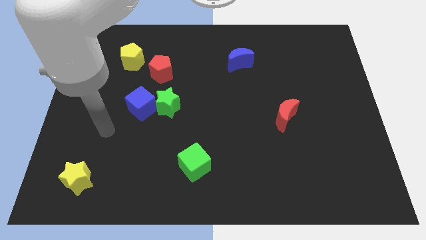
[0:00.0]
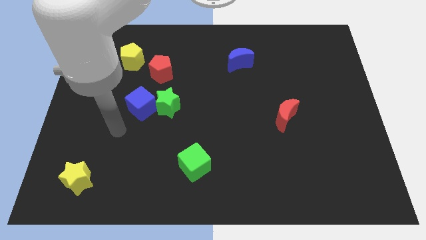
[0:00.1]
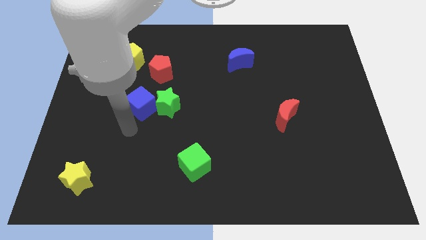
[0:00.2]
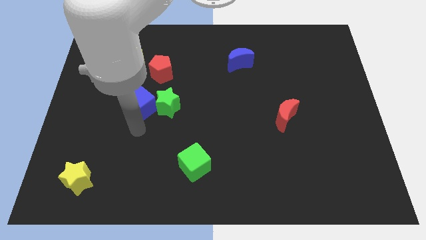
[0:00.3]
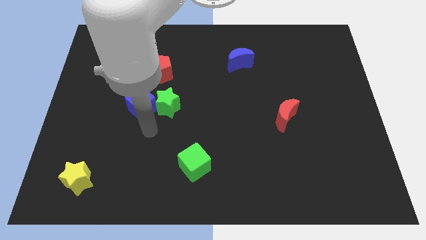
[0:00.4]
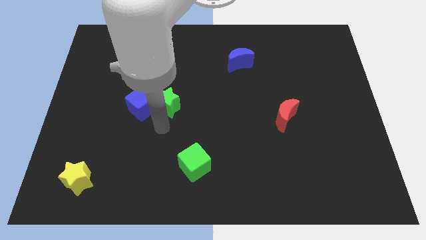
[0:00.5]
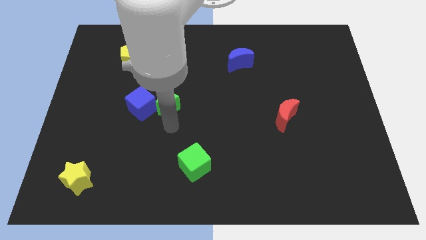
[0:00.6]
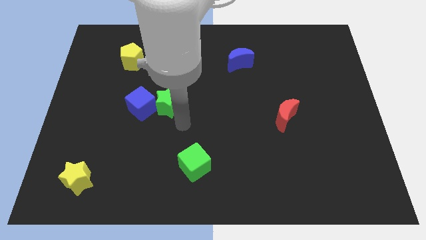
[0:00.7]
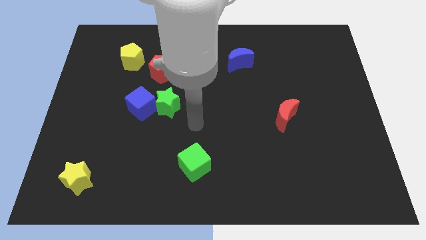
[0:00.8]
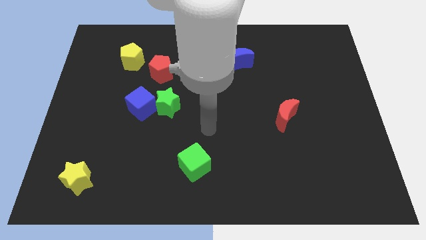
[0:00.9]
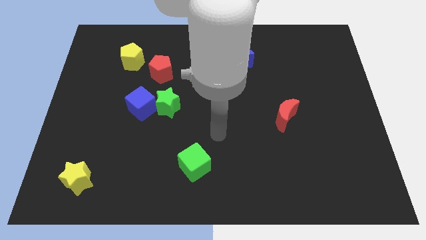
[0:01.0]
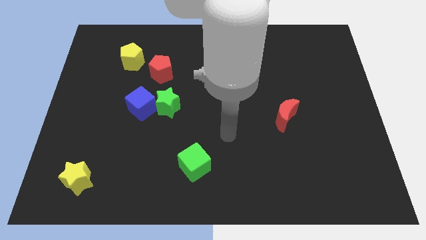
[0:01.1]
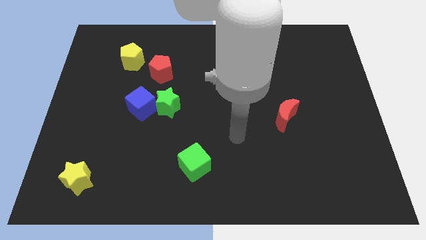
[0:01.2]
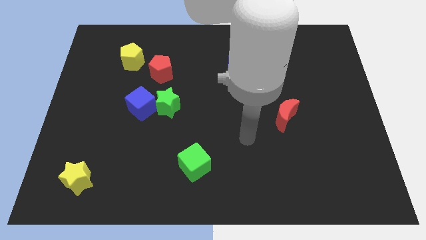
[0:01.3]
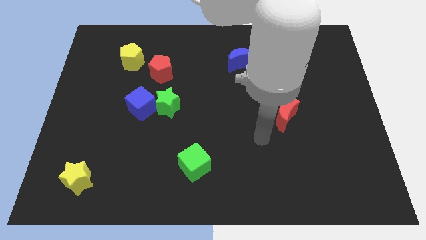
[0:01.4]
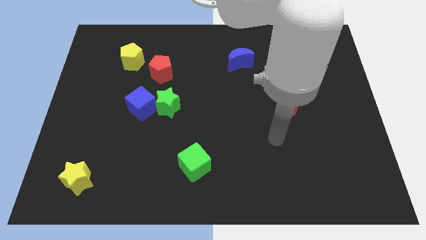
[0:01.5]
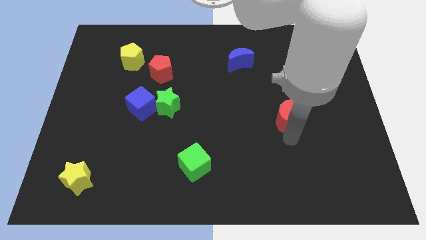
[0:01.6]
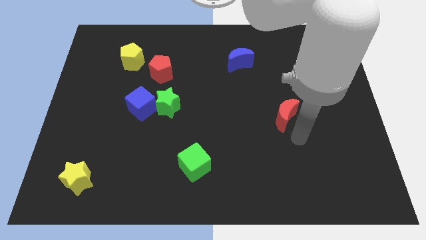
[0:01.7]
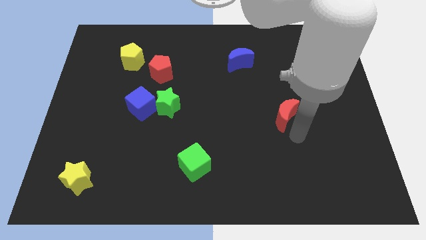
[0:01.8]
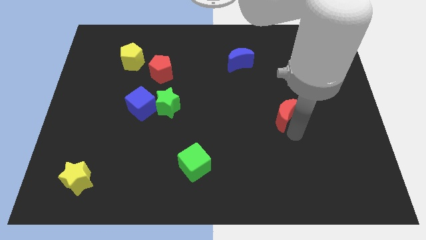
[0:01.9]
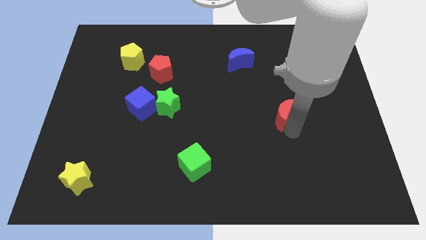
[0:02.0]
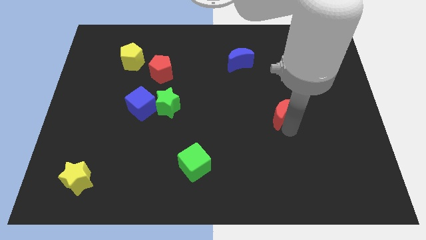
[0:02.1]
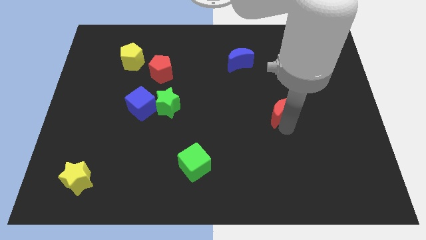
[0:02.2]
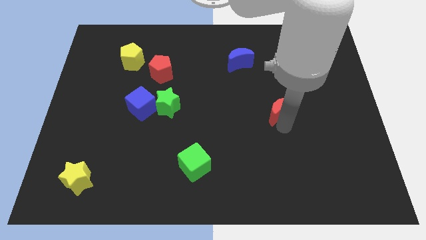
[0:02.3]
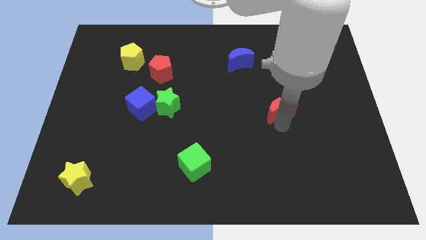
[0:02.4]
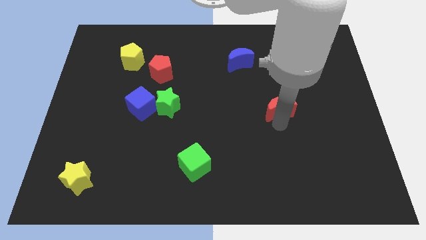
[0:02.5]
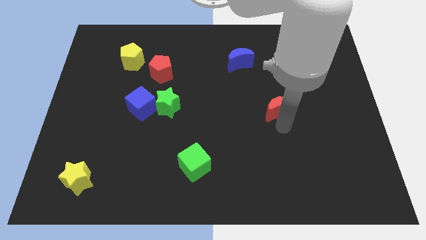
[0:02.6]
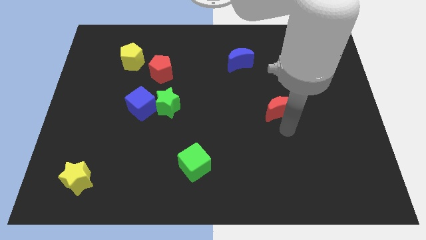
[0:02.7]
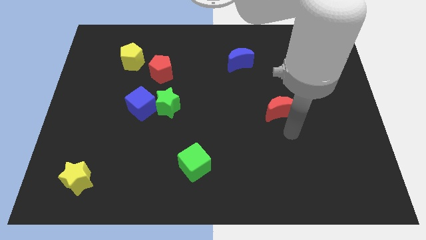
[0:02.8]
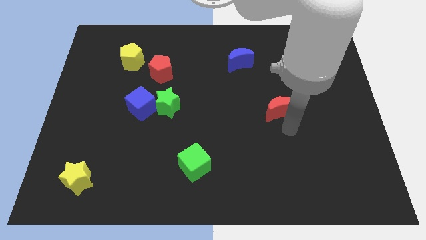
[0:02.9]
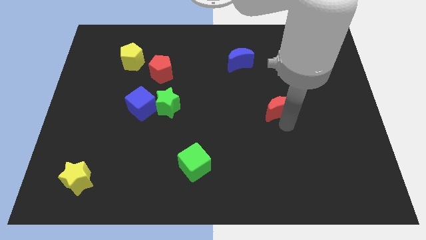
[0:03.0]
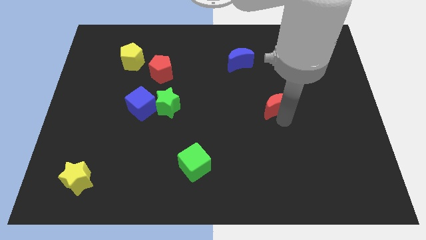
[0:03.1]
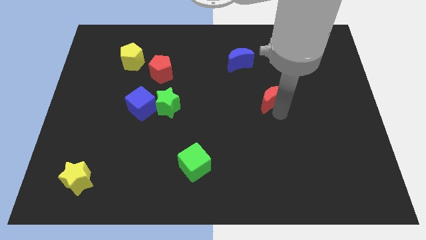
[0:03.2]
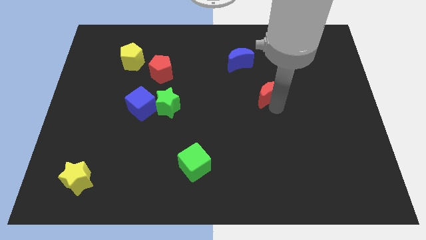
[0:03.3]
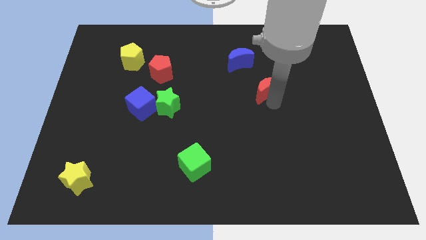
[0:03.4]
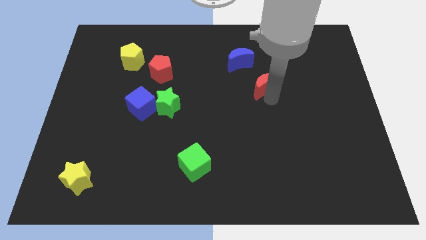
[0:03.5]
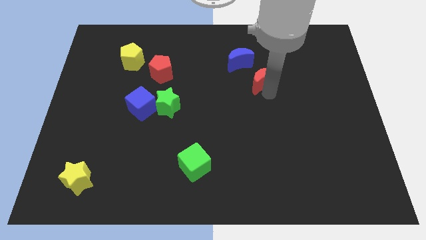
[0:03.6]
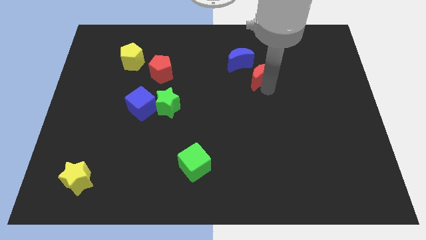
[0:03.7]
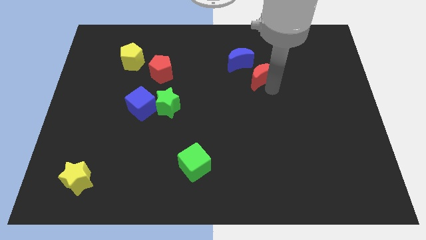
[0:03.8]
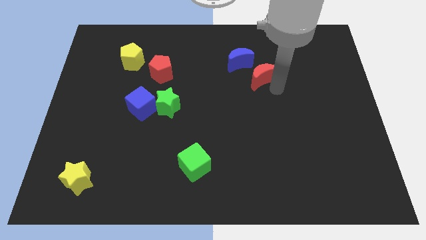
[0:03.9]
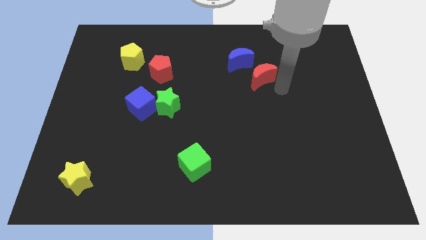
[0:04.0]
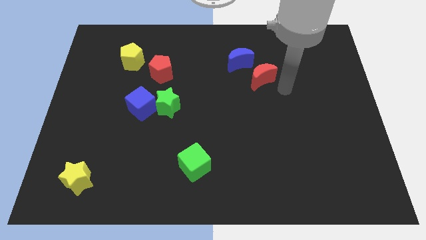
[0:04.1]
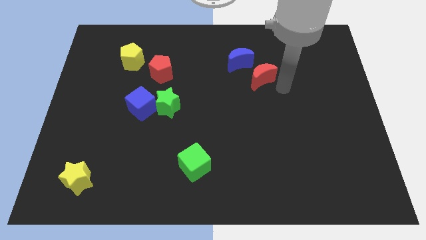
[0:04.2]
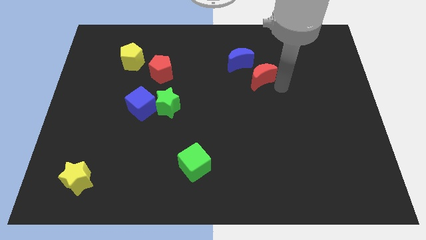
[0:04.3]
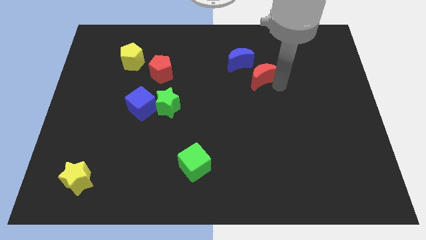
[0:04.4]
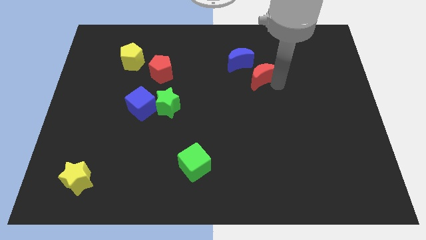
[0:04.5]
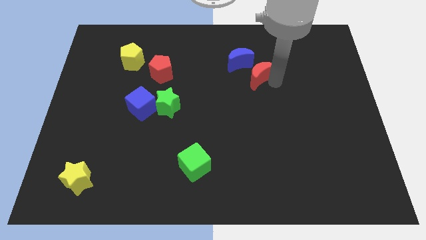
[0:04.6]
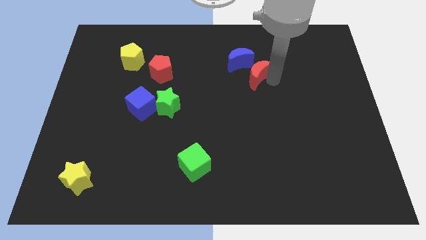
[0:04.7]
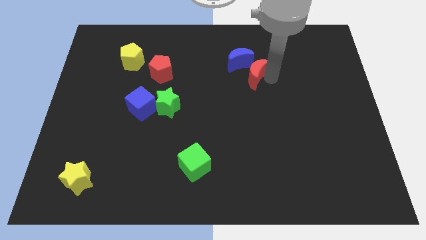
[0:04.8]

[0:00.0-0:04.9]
slide the red moon to the blue moon

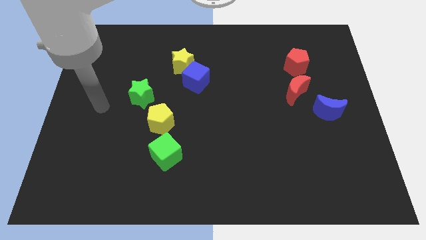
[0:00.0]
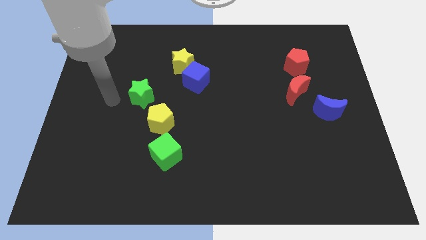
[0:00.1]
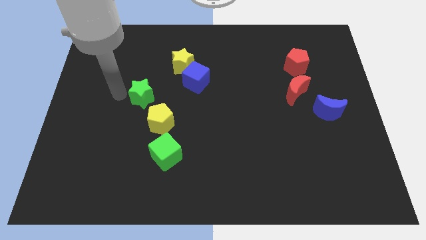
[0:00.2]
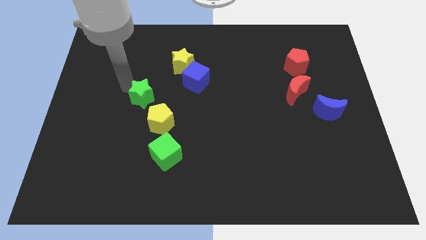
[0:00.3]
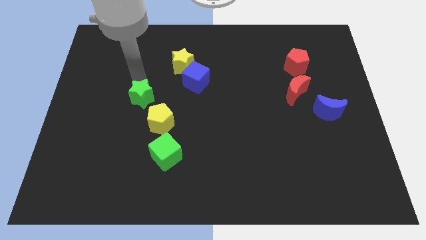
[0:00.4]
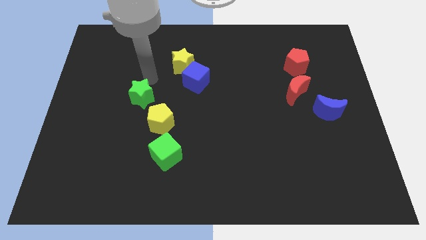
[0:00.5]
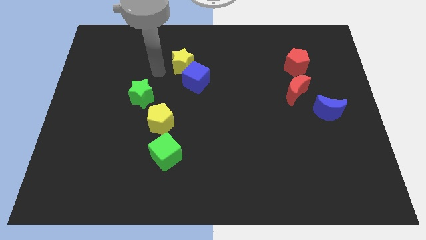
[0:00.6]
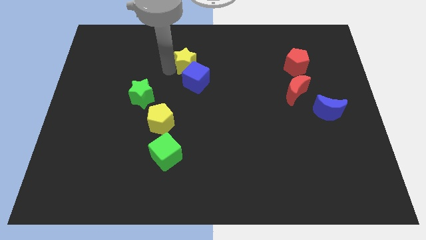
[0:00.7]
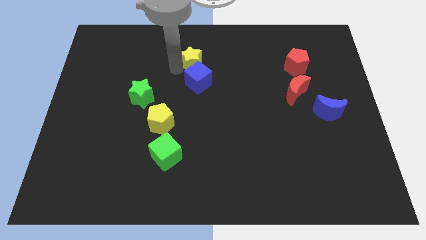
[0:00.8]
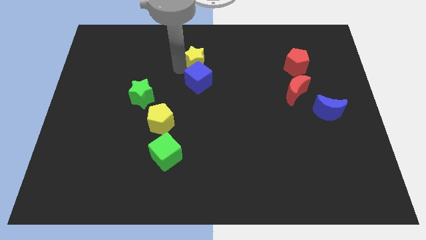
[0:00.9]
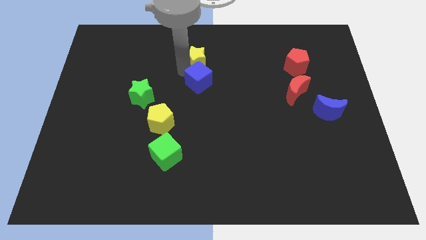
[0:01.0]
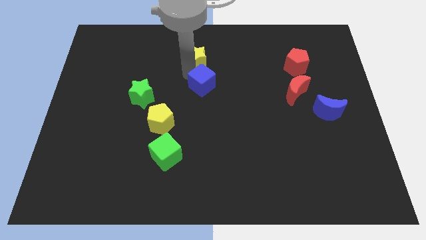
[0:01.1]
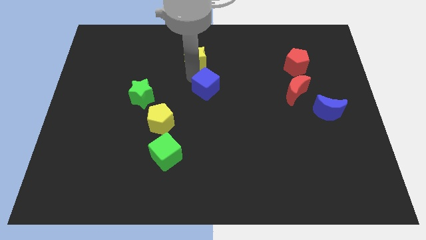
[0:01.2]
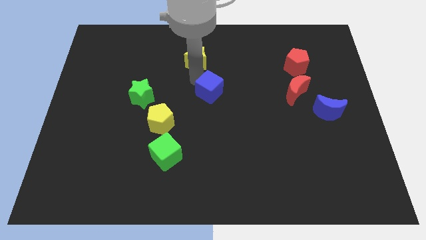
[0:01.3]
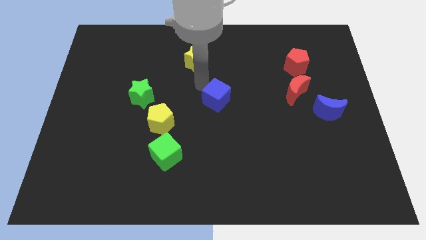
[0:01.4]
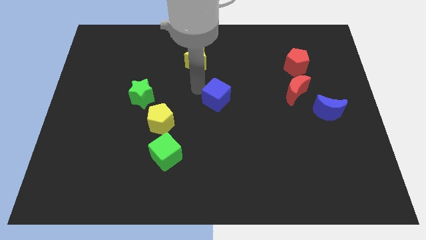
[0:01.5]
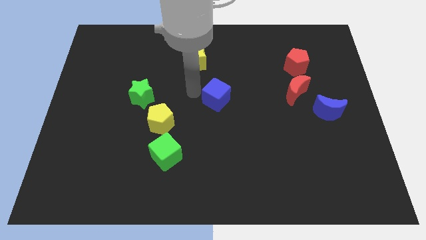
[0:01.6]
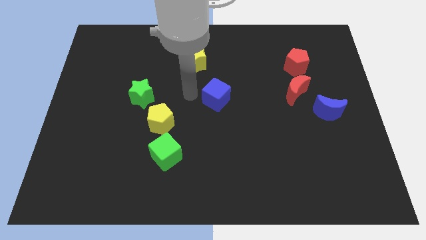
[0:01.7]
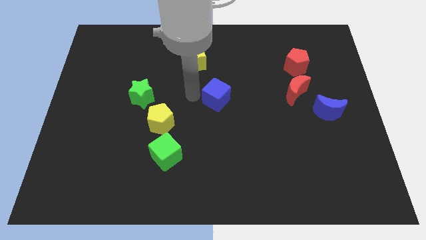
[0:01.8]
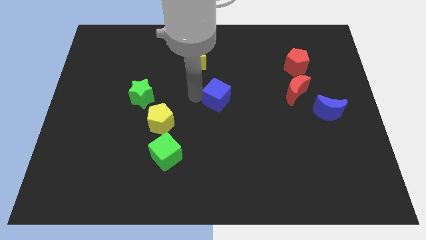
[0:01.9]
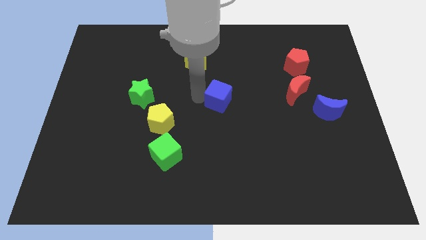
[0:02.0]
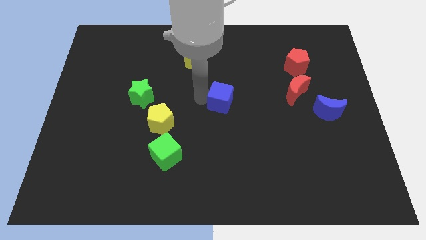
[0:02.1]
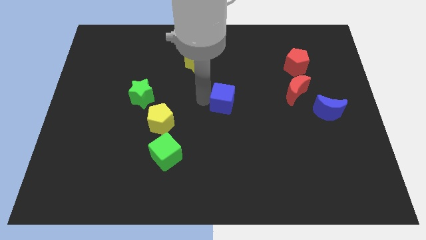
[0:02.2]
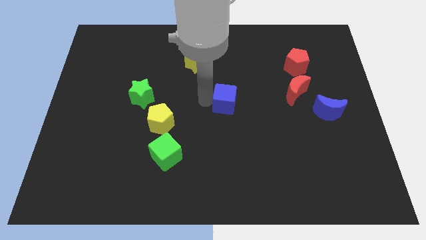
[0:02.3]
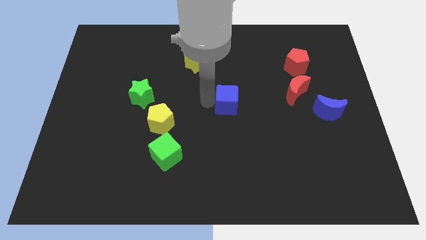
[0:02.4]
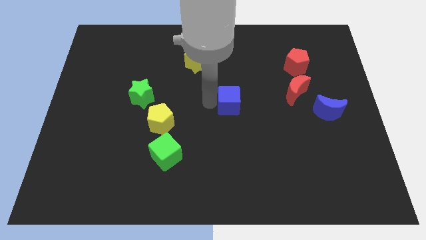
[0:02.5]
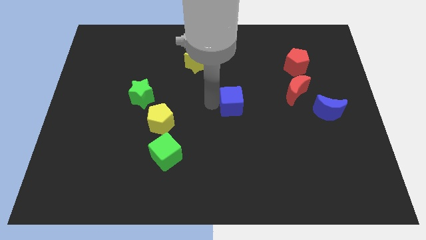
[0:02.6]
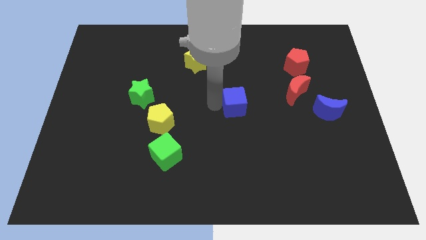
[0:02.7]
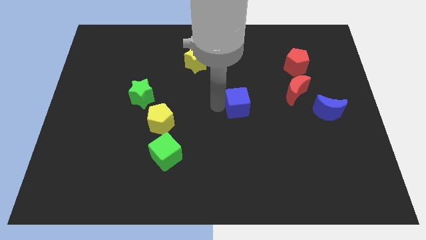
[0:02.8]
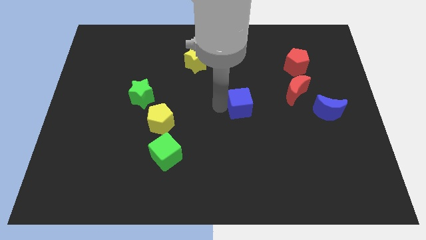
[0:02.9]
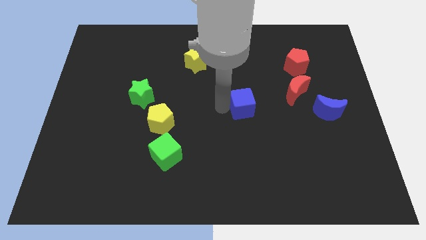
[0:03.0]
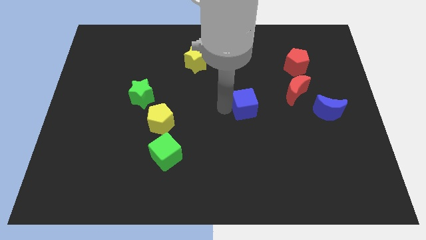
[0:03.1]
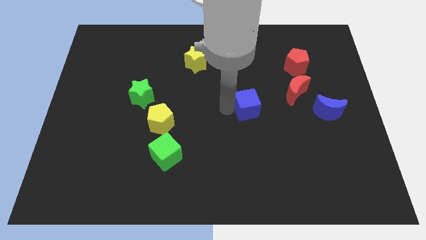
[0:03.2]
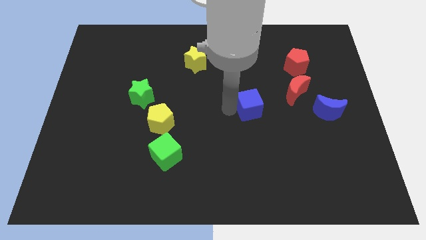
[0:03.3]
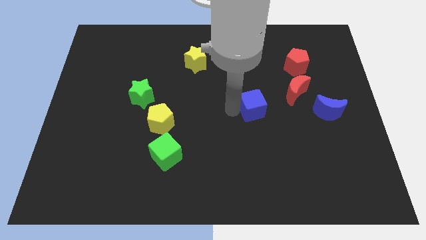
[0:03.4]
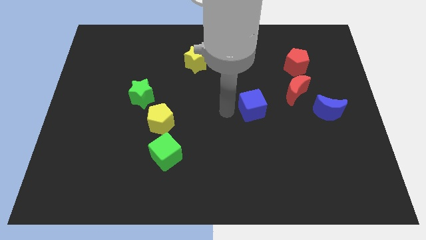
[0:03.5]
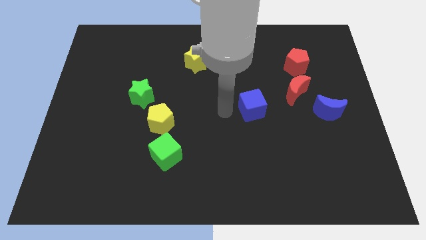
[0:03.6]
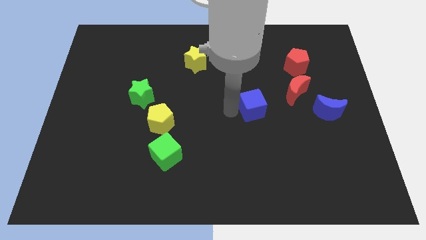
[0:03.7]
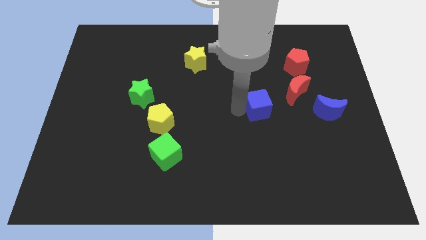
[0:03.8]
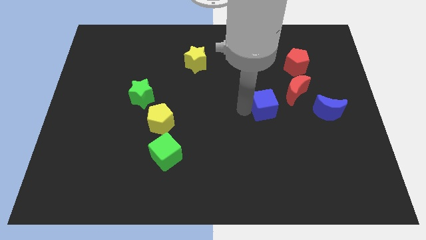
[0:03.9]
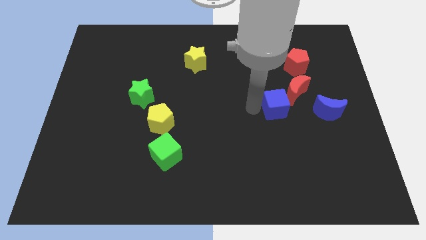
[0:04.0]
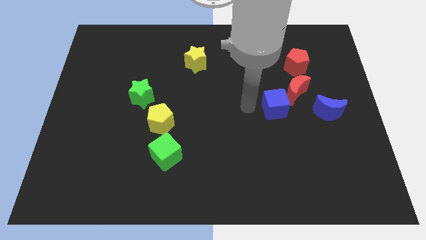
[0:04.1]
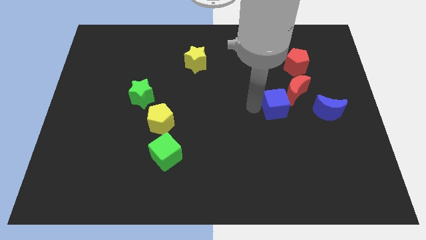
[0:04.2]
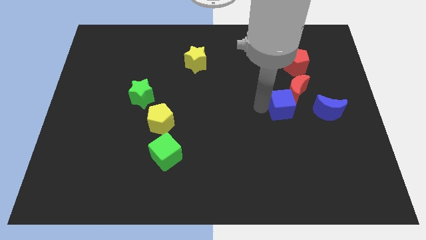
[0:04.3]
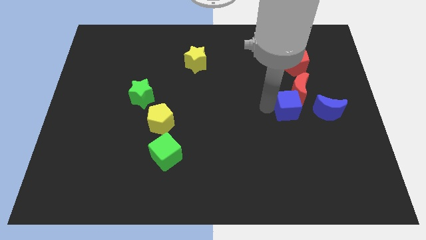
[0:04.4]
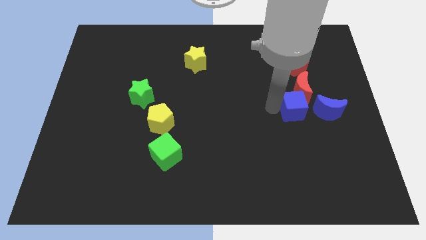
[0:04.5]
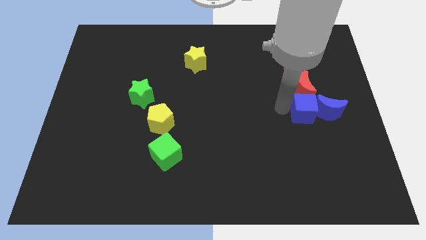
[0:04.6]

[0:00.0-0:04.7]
put the blue cube to the blue moon
